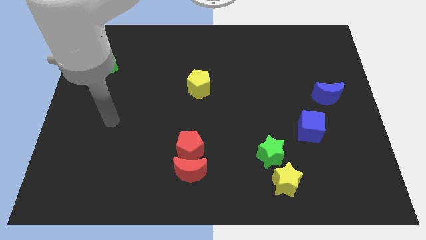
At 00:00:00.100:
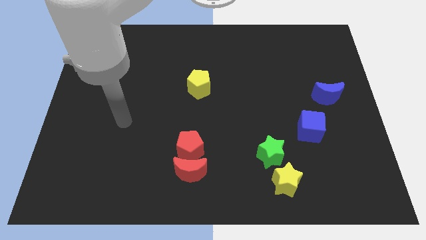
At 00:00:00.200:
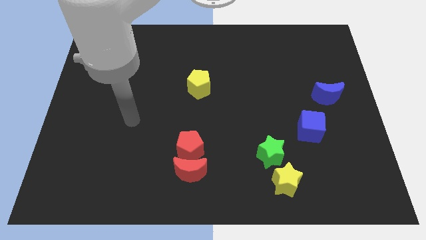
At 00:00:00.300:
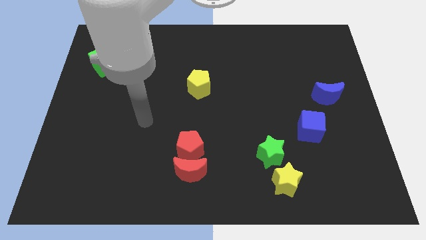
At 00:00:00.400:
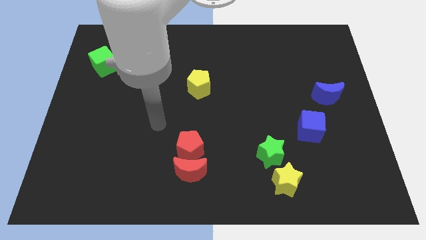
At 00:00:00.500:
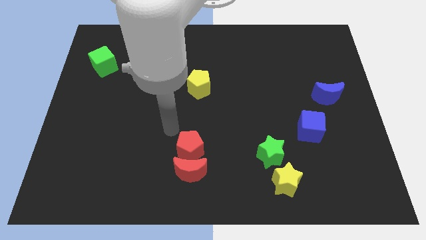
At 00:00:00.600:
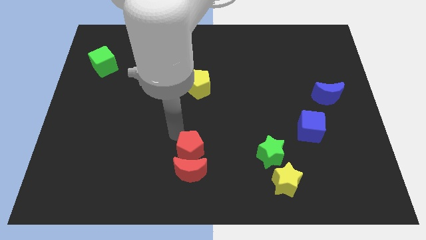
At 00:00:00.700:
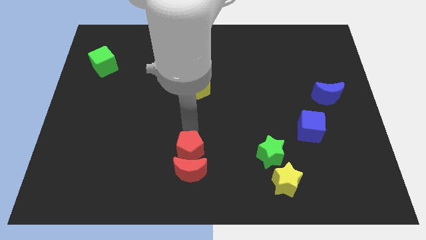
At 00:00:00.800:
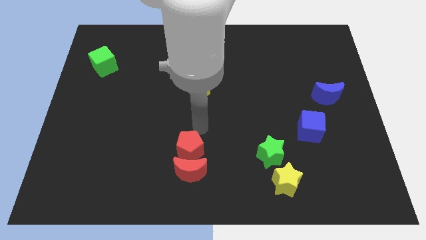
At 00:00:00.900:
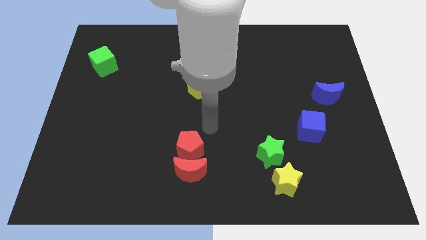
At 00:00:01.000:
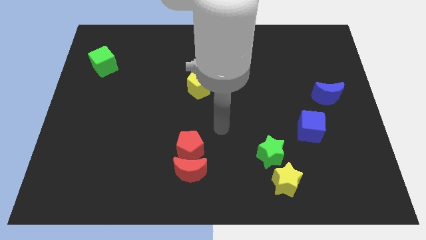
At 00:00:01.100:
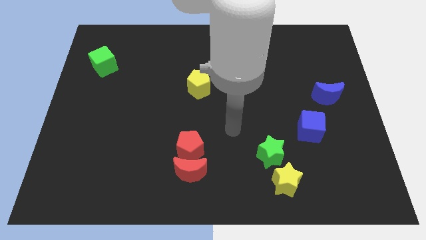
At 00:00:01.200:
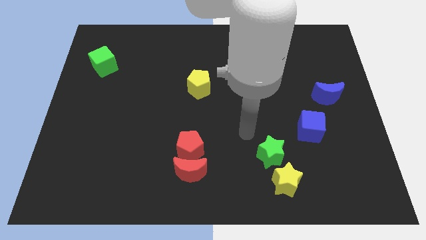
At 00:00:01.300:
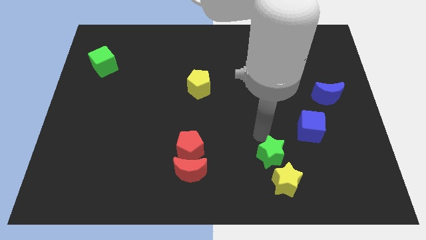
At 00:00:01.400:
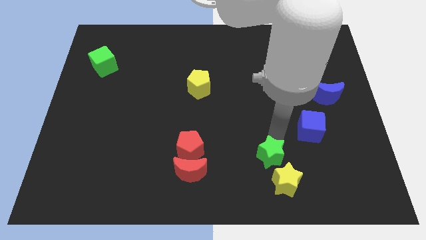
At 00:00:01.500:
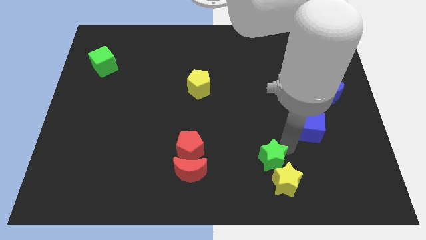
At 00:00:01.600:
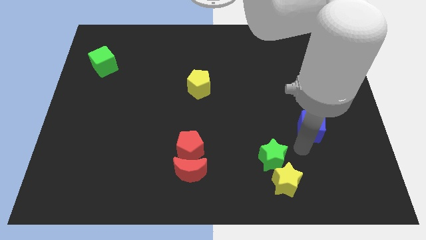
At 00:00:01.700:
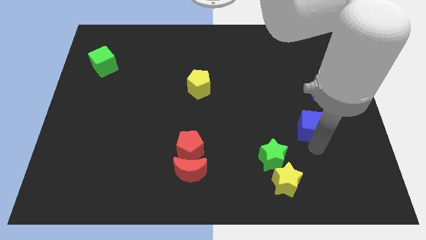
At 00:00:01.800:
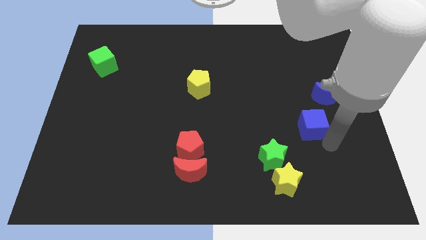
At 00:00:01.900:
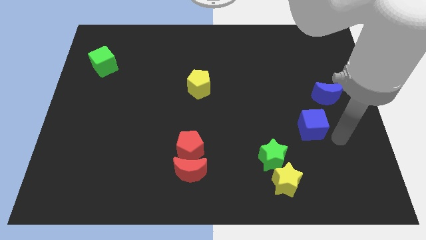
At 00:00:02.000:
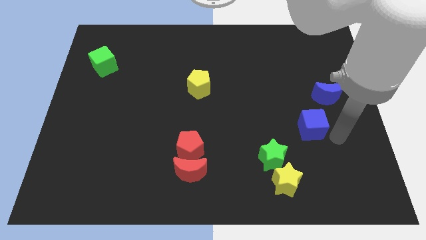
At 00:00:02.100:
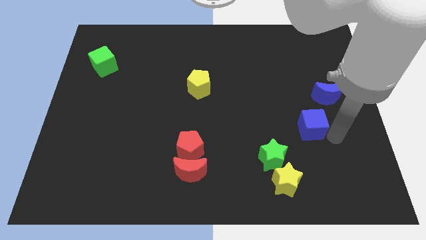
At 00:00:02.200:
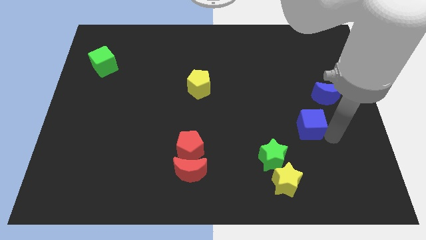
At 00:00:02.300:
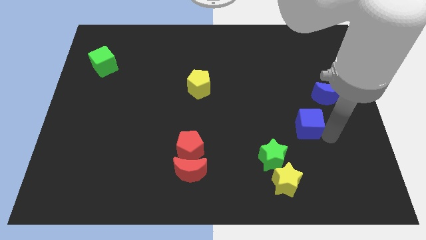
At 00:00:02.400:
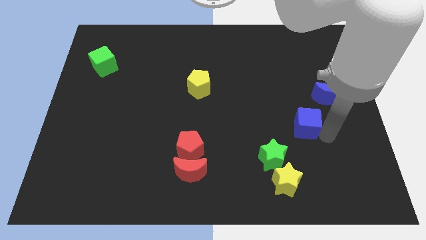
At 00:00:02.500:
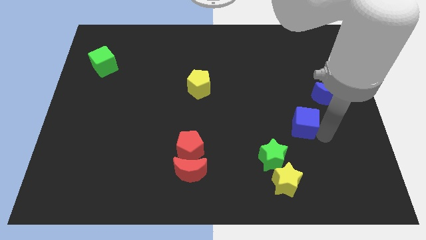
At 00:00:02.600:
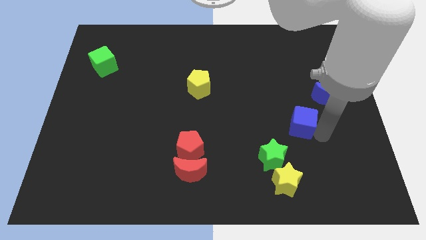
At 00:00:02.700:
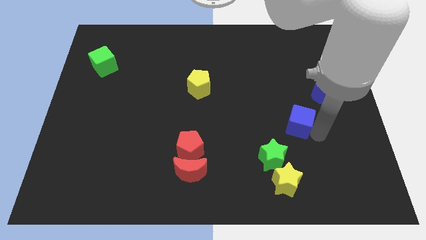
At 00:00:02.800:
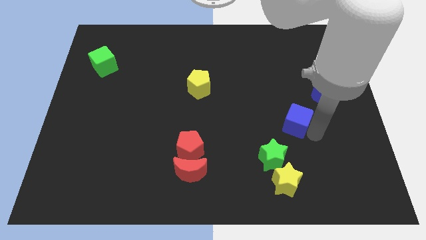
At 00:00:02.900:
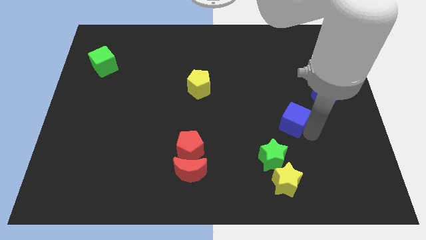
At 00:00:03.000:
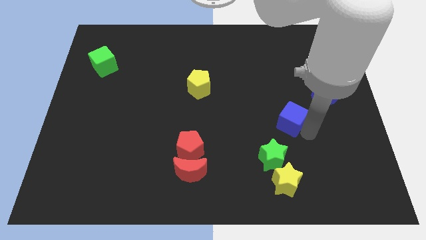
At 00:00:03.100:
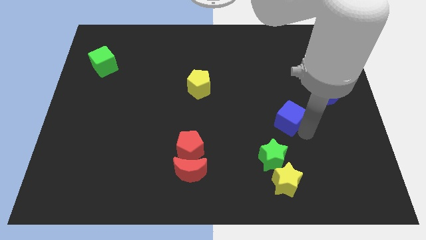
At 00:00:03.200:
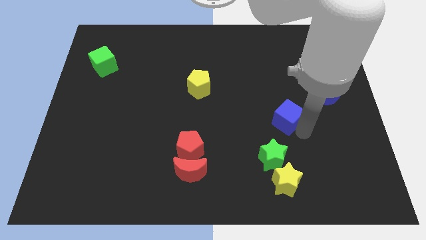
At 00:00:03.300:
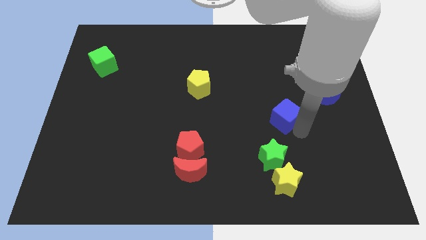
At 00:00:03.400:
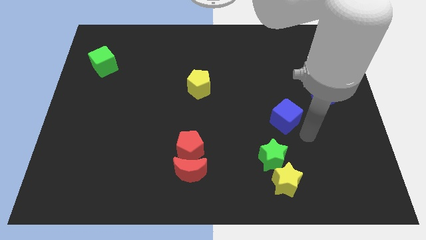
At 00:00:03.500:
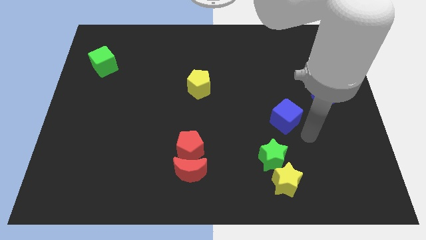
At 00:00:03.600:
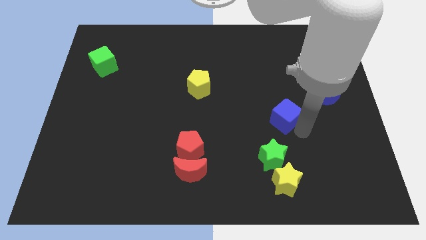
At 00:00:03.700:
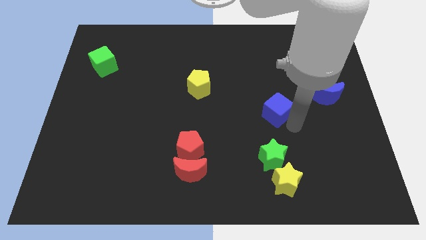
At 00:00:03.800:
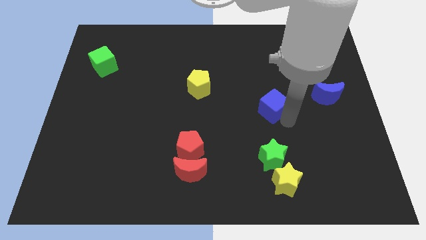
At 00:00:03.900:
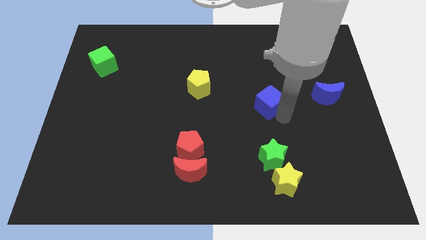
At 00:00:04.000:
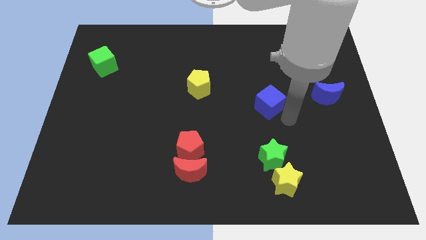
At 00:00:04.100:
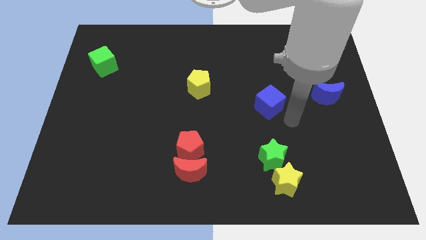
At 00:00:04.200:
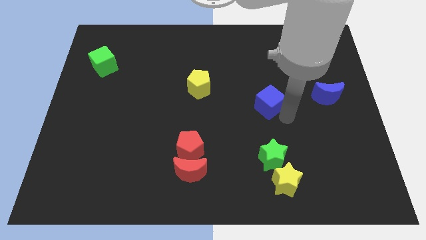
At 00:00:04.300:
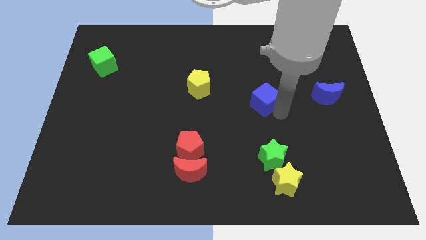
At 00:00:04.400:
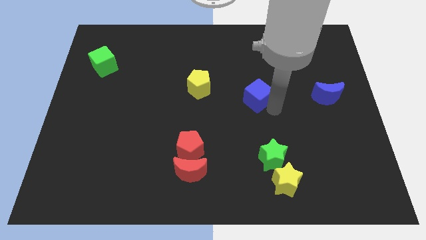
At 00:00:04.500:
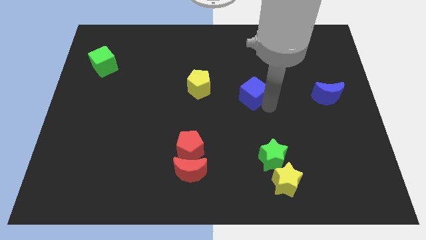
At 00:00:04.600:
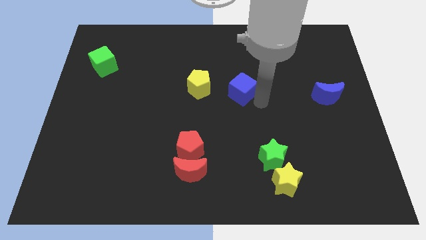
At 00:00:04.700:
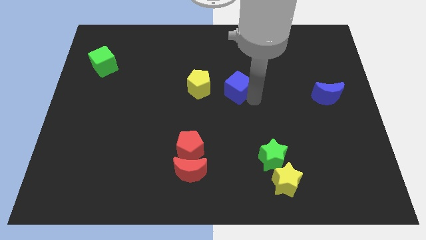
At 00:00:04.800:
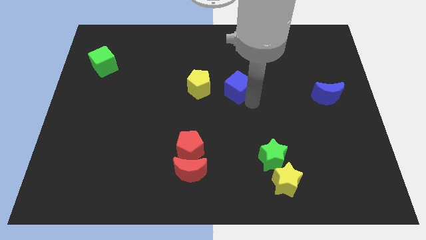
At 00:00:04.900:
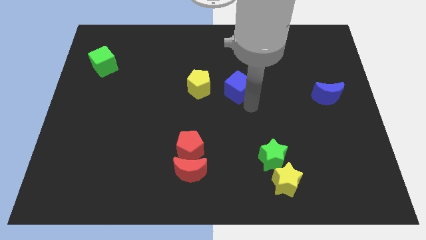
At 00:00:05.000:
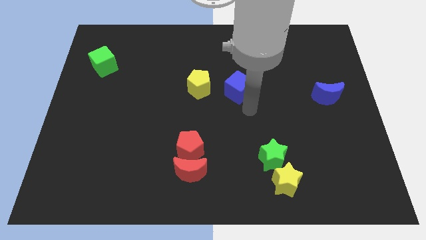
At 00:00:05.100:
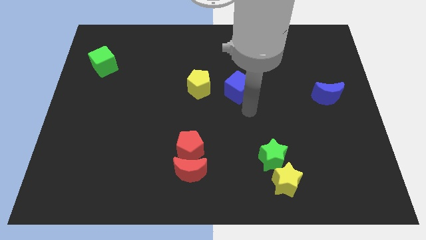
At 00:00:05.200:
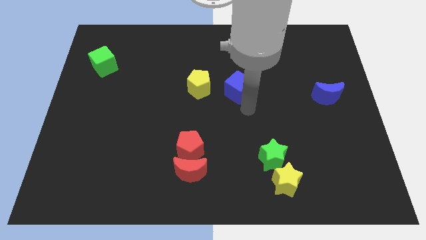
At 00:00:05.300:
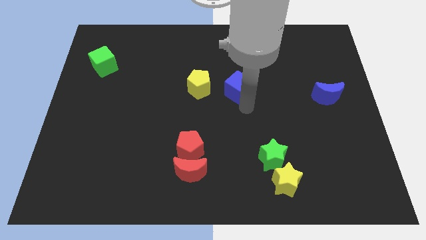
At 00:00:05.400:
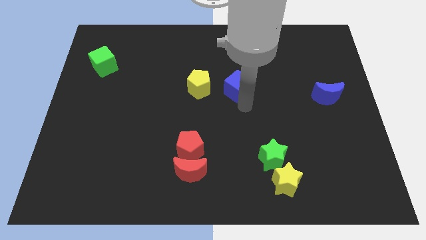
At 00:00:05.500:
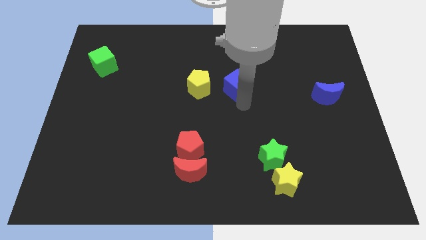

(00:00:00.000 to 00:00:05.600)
push the blue cube diagonally upwards and left

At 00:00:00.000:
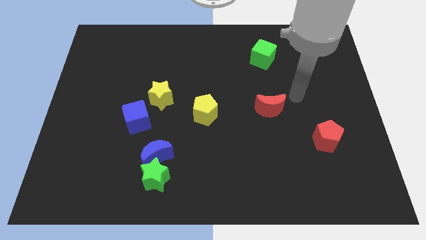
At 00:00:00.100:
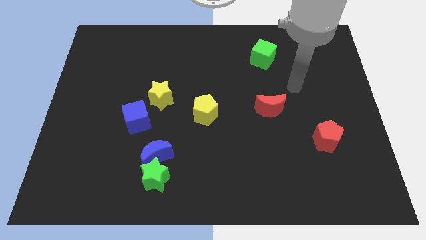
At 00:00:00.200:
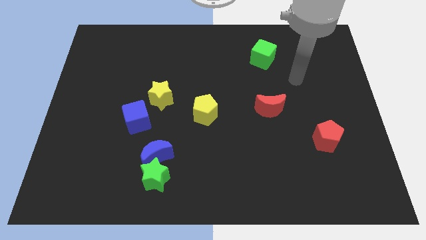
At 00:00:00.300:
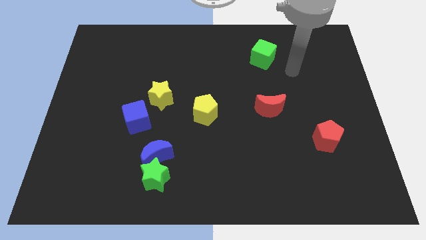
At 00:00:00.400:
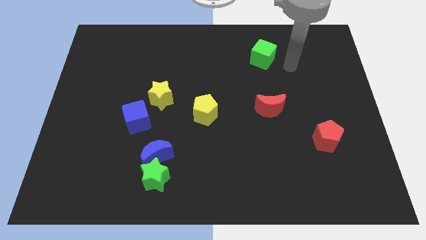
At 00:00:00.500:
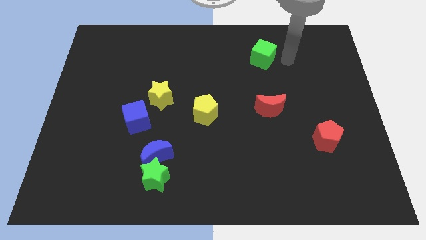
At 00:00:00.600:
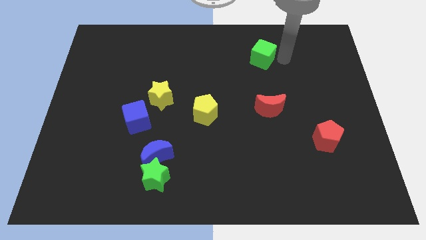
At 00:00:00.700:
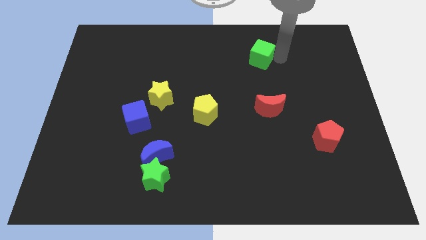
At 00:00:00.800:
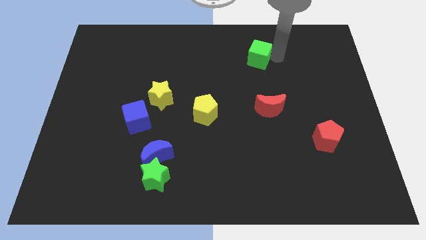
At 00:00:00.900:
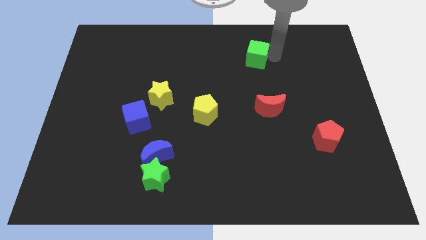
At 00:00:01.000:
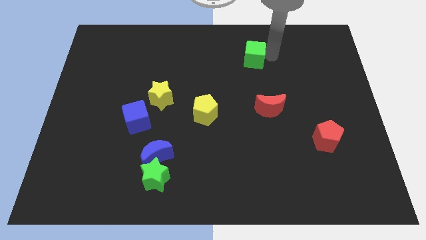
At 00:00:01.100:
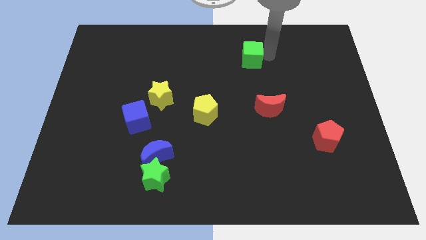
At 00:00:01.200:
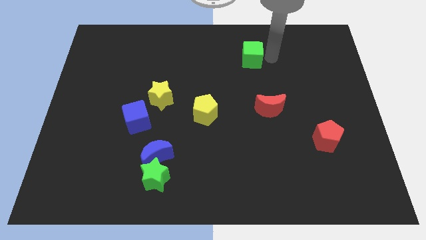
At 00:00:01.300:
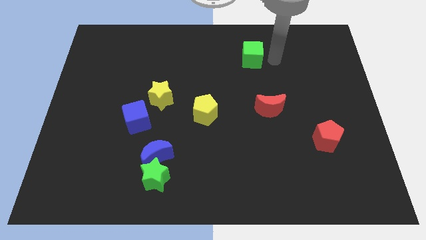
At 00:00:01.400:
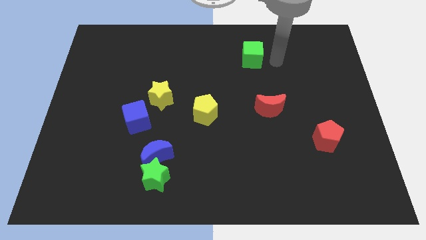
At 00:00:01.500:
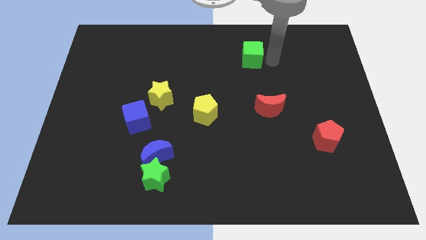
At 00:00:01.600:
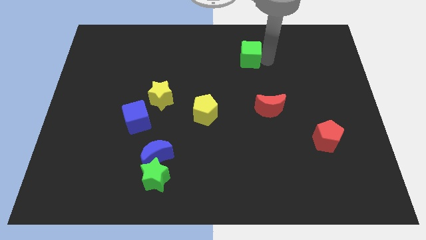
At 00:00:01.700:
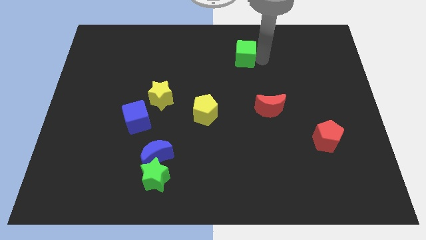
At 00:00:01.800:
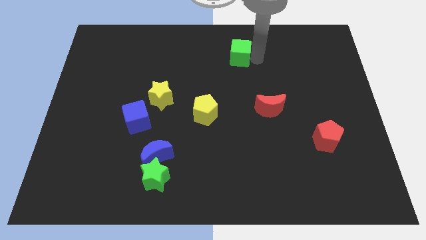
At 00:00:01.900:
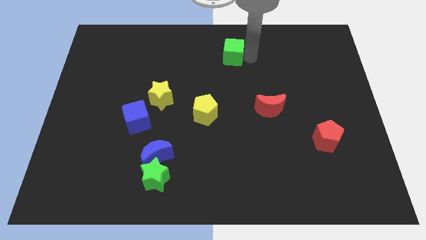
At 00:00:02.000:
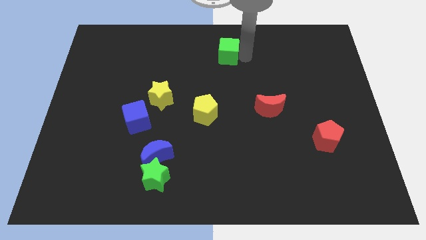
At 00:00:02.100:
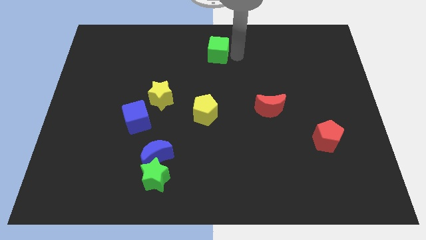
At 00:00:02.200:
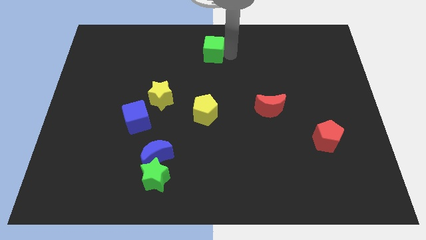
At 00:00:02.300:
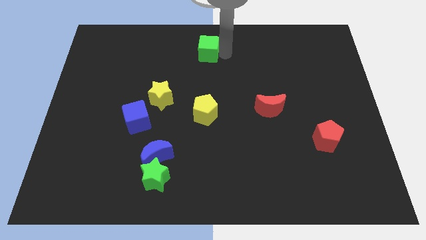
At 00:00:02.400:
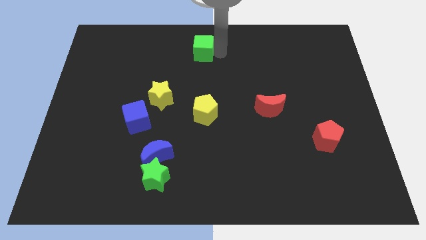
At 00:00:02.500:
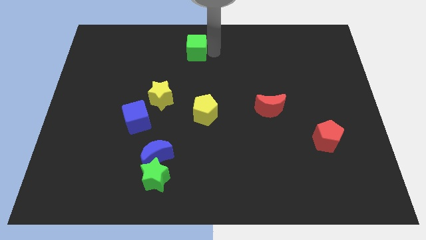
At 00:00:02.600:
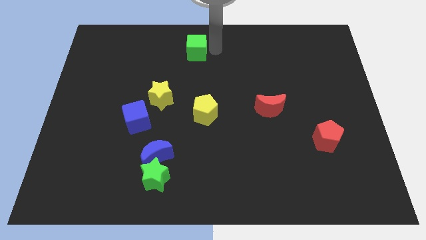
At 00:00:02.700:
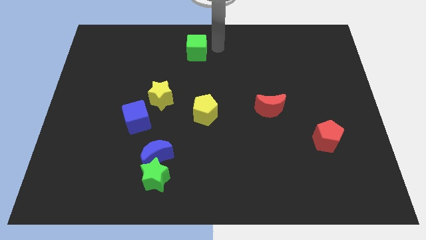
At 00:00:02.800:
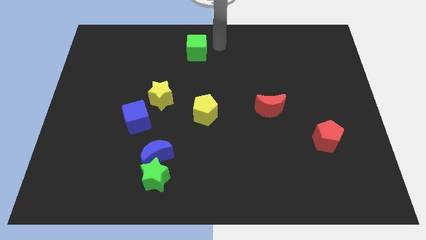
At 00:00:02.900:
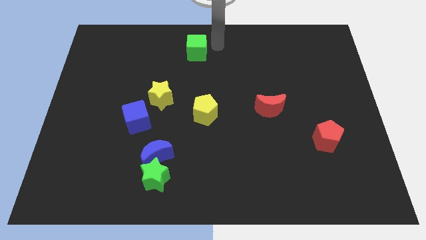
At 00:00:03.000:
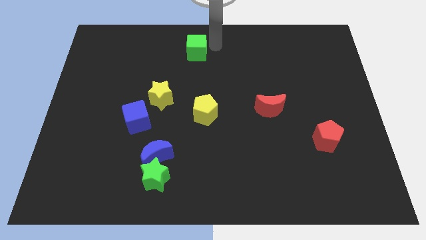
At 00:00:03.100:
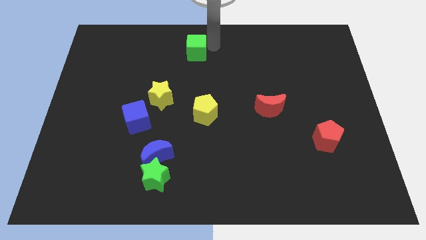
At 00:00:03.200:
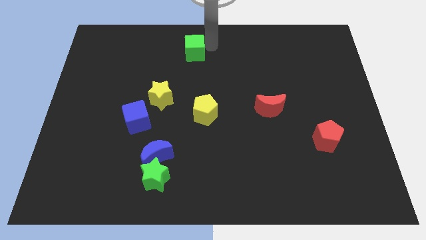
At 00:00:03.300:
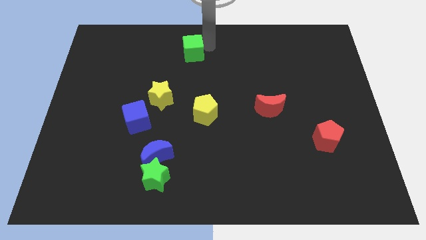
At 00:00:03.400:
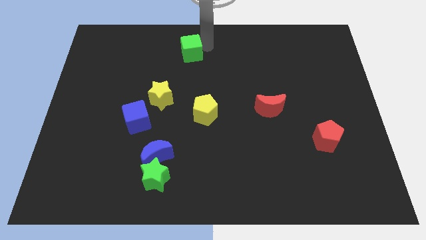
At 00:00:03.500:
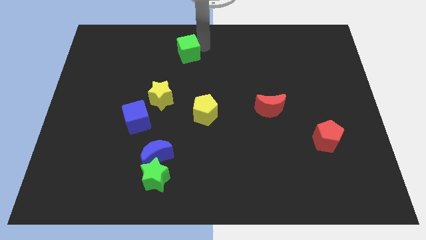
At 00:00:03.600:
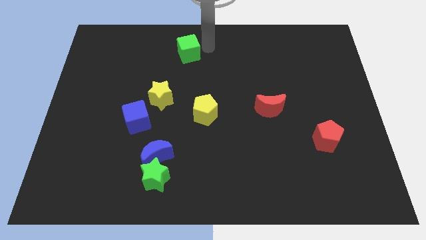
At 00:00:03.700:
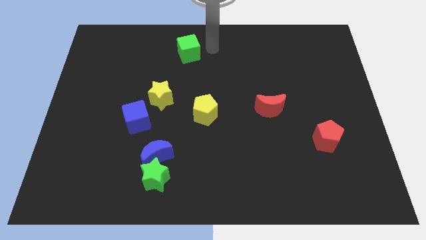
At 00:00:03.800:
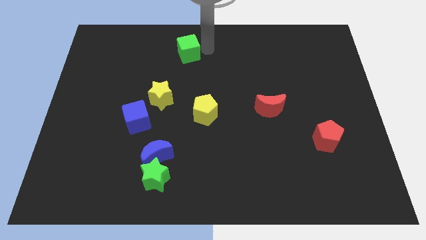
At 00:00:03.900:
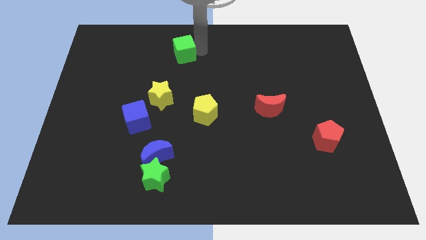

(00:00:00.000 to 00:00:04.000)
slide the green cube to the left
